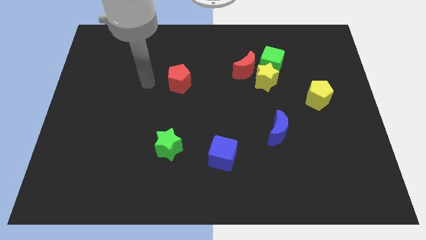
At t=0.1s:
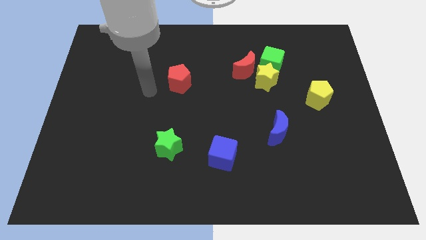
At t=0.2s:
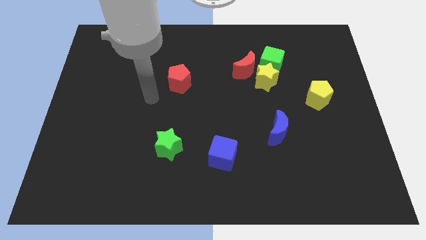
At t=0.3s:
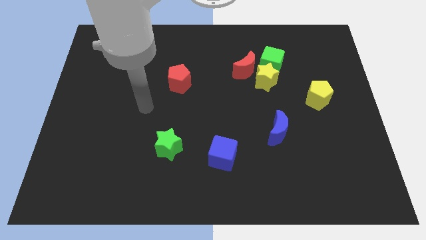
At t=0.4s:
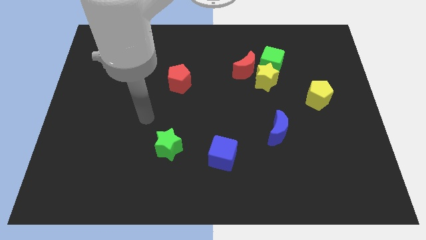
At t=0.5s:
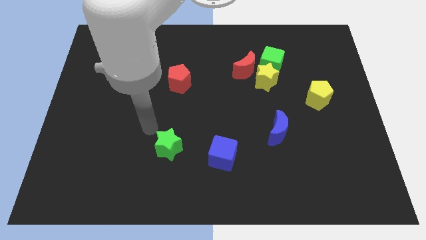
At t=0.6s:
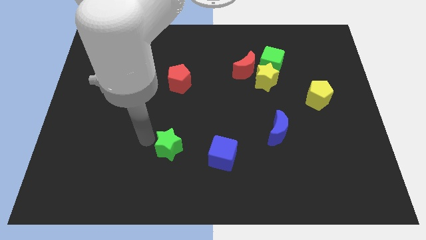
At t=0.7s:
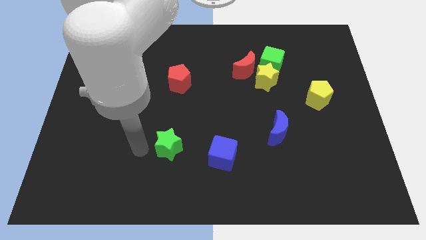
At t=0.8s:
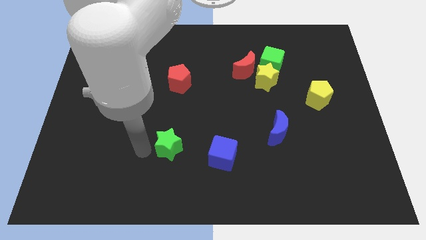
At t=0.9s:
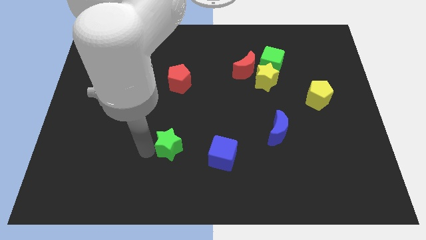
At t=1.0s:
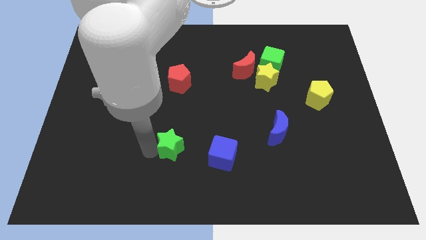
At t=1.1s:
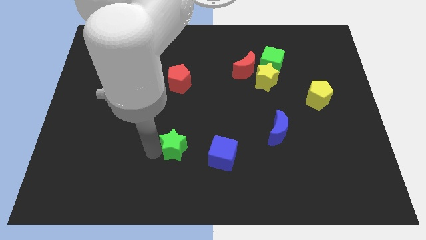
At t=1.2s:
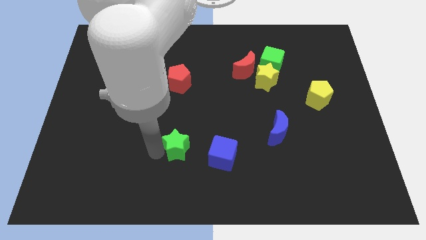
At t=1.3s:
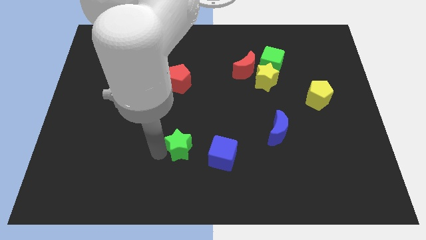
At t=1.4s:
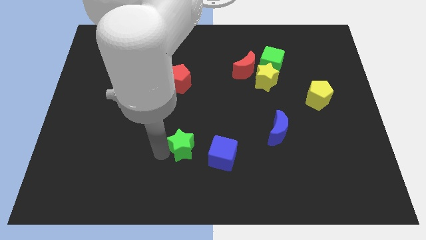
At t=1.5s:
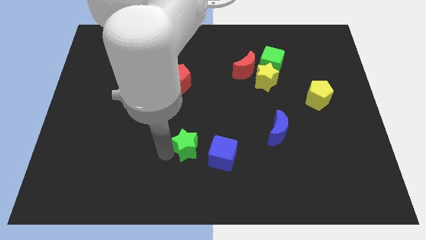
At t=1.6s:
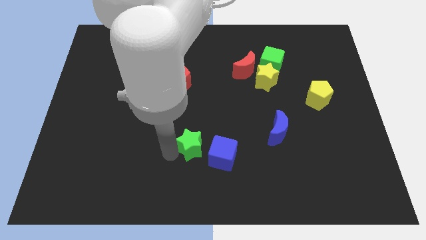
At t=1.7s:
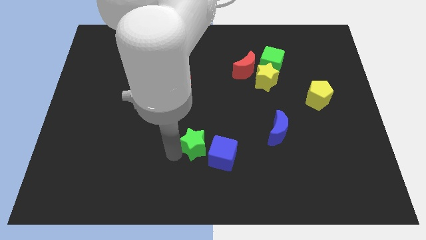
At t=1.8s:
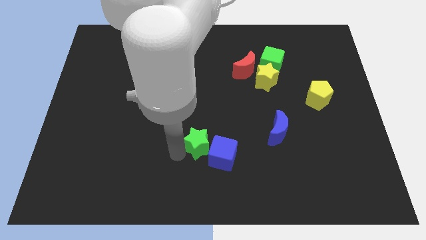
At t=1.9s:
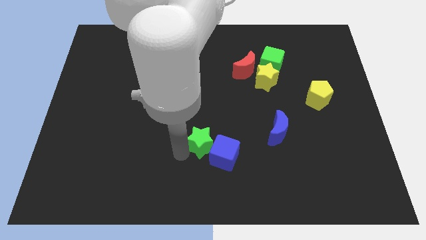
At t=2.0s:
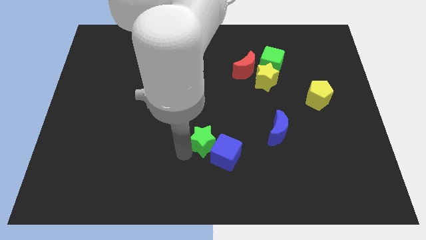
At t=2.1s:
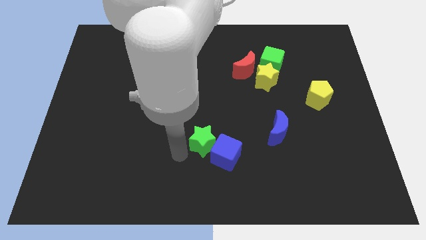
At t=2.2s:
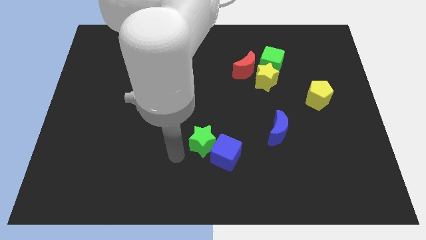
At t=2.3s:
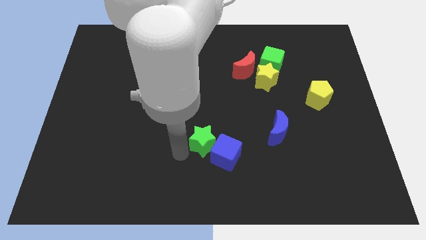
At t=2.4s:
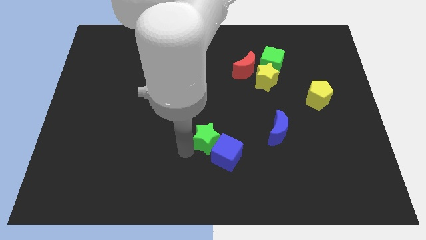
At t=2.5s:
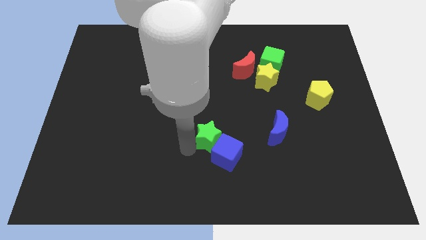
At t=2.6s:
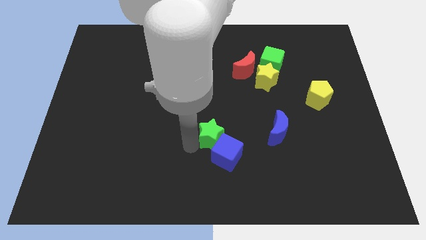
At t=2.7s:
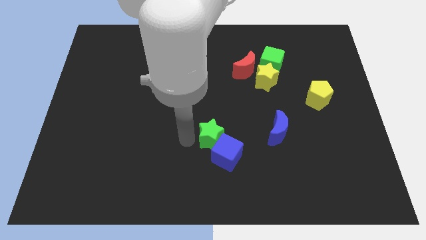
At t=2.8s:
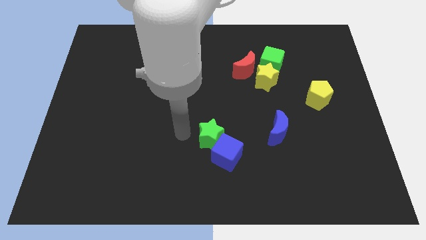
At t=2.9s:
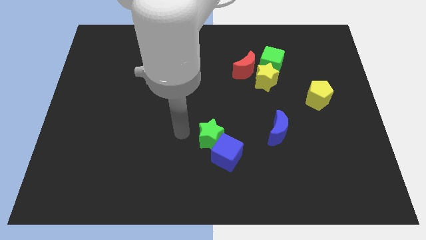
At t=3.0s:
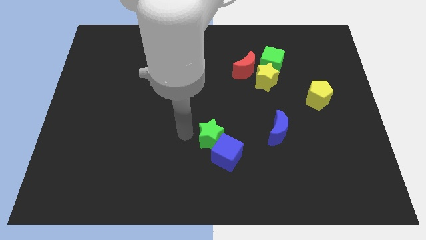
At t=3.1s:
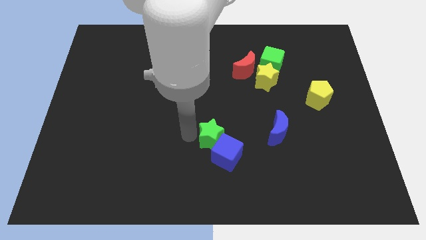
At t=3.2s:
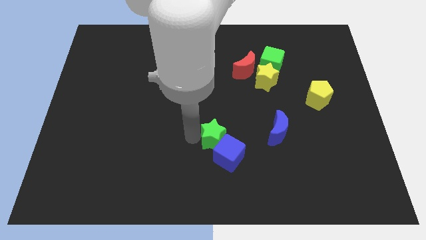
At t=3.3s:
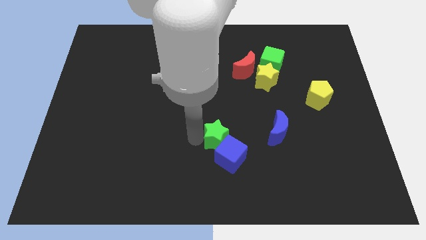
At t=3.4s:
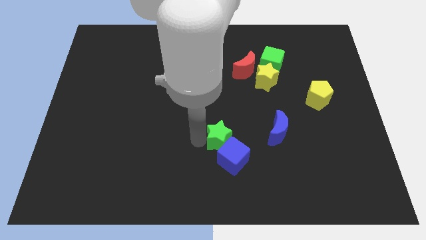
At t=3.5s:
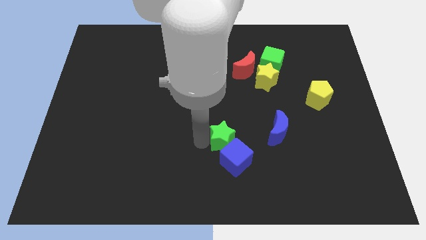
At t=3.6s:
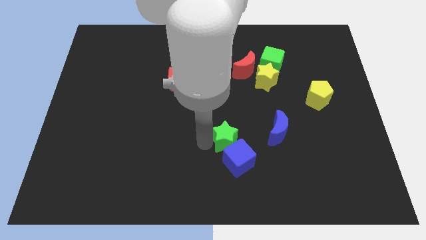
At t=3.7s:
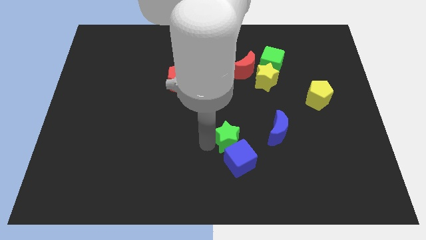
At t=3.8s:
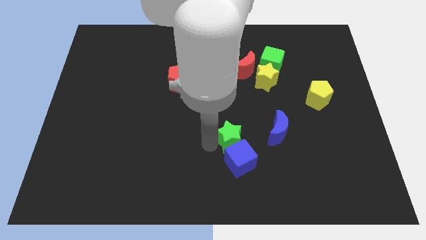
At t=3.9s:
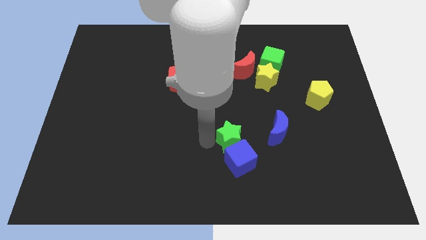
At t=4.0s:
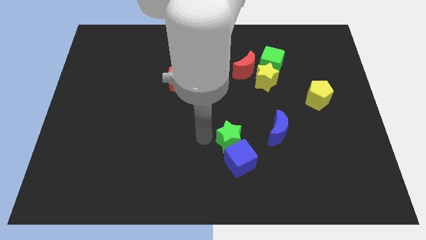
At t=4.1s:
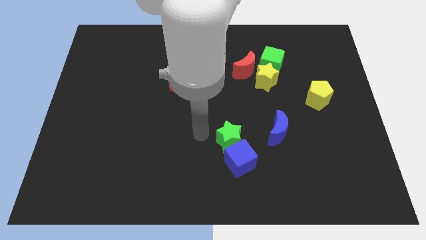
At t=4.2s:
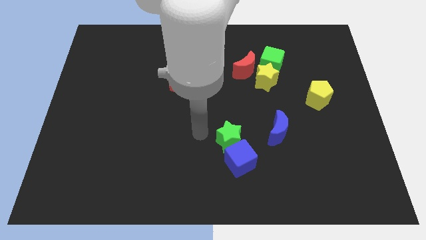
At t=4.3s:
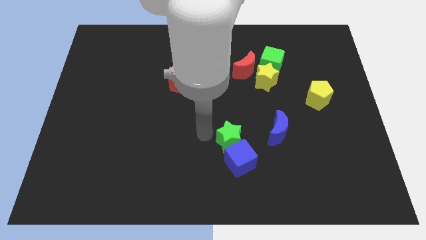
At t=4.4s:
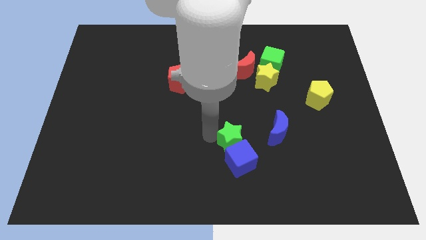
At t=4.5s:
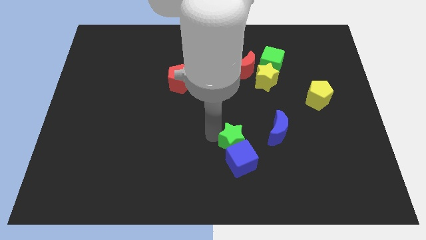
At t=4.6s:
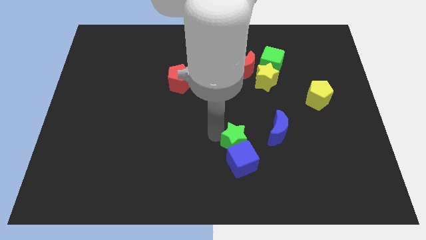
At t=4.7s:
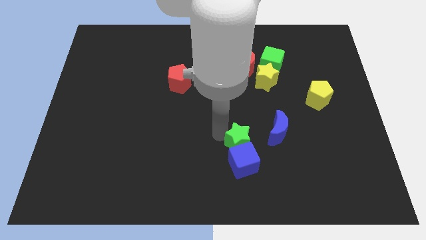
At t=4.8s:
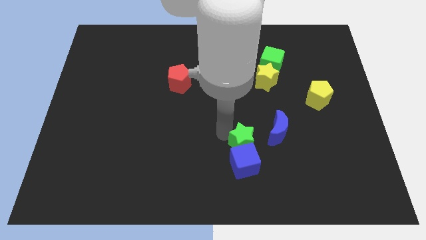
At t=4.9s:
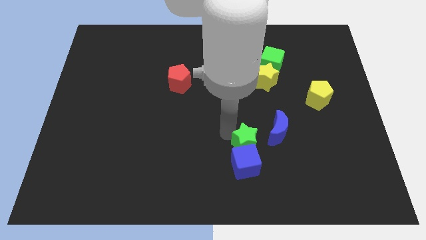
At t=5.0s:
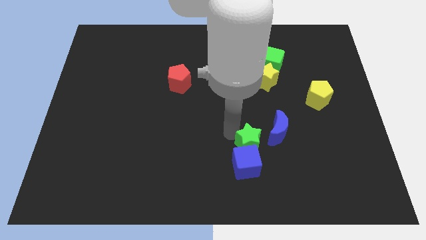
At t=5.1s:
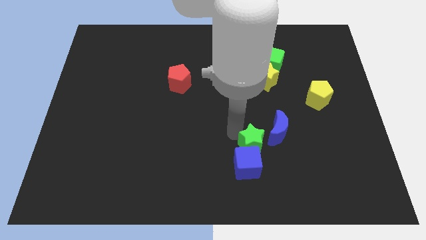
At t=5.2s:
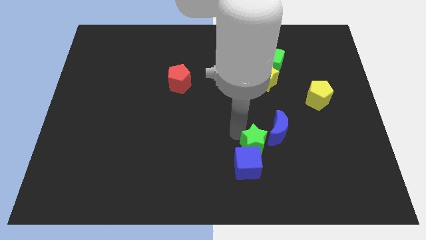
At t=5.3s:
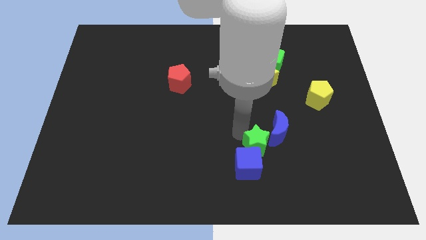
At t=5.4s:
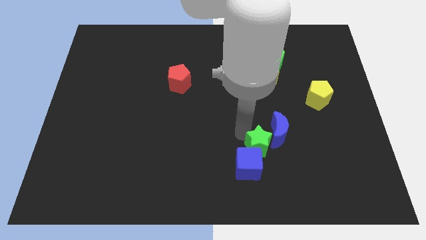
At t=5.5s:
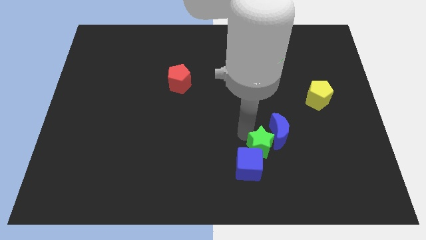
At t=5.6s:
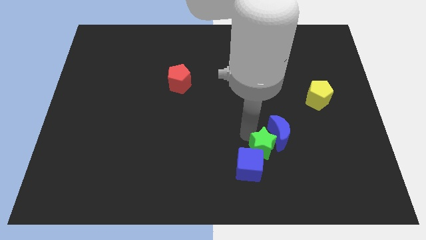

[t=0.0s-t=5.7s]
push the green star right

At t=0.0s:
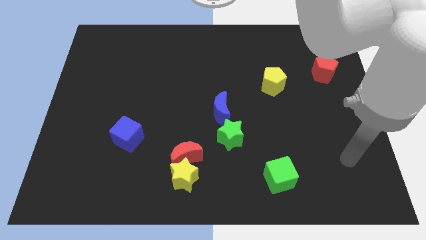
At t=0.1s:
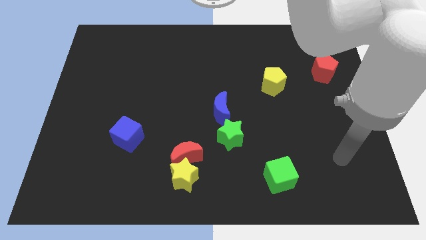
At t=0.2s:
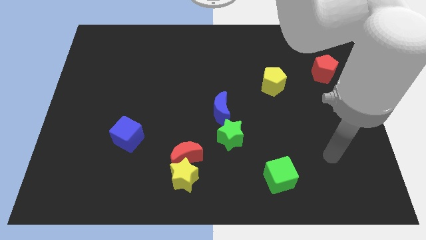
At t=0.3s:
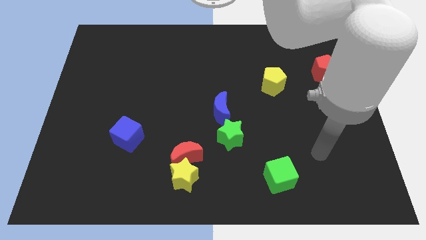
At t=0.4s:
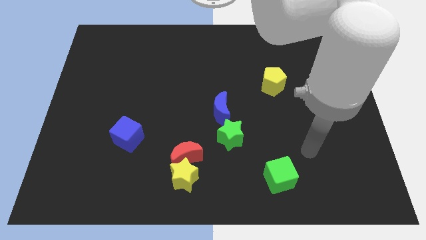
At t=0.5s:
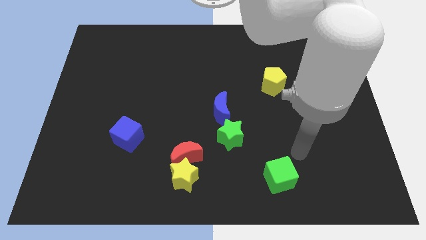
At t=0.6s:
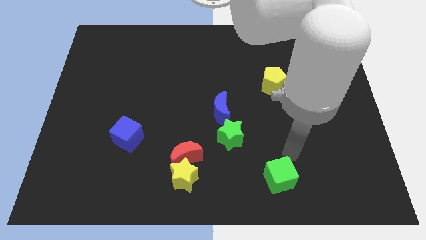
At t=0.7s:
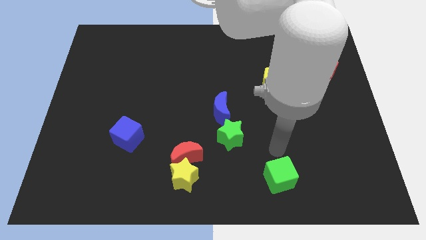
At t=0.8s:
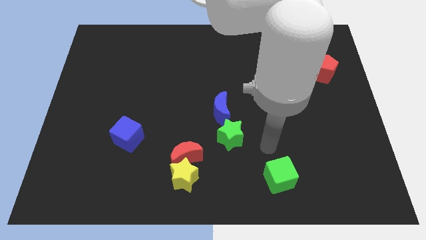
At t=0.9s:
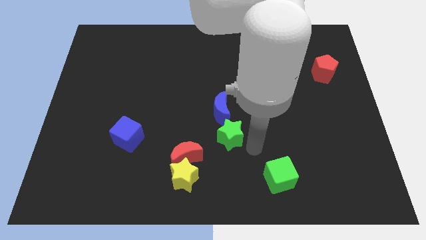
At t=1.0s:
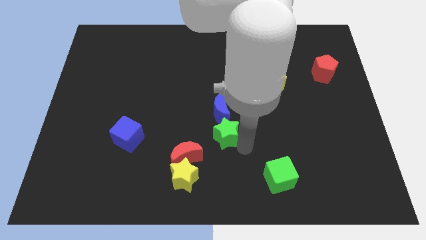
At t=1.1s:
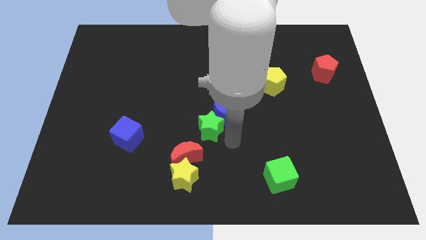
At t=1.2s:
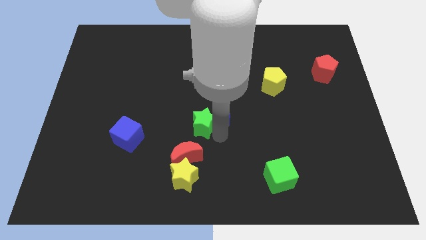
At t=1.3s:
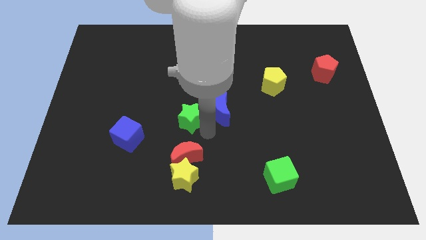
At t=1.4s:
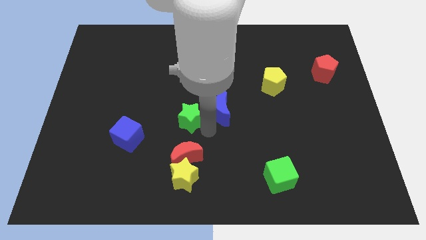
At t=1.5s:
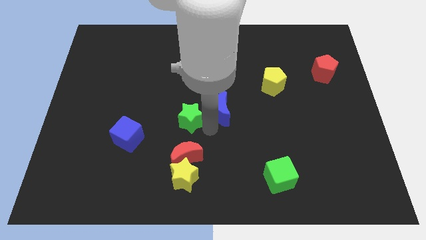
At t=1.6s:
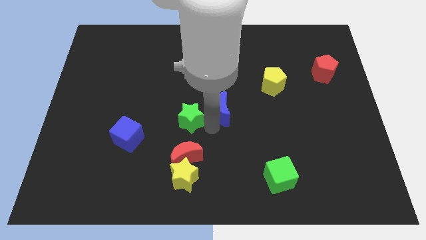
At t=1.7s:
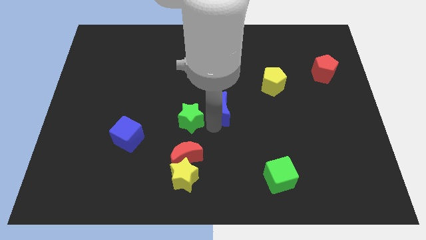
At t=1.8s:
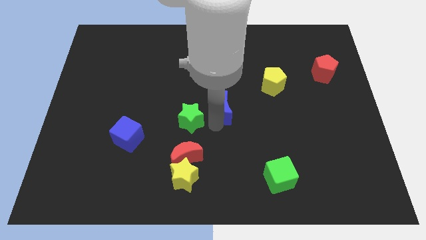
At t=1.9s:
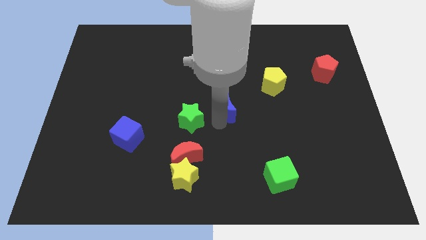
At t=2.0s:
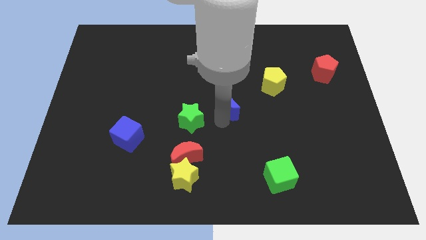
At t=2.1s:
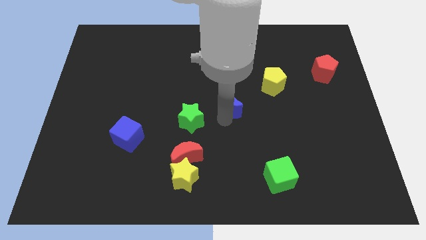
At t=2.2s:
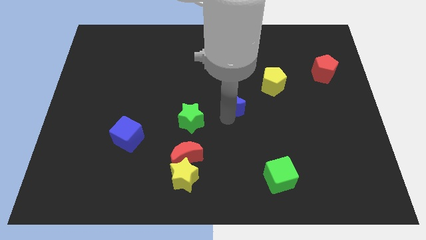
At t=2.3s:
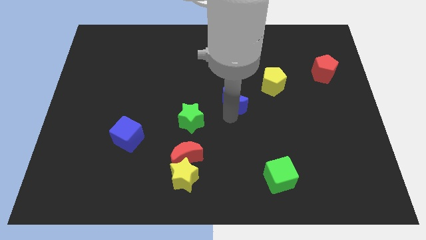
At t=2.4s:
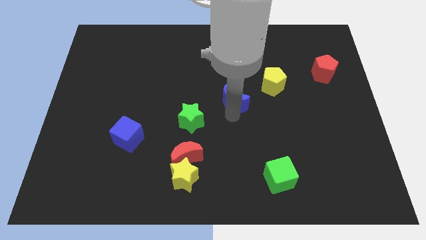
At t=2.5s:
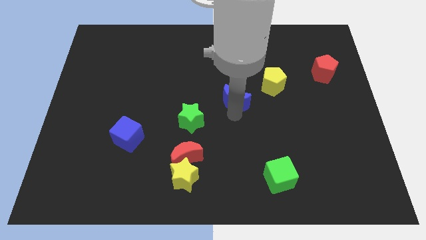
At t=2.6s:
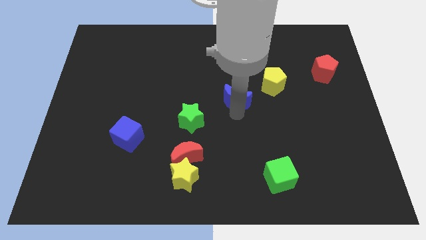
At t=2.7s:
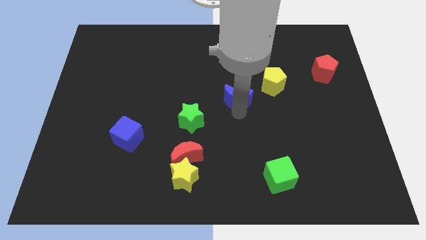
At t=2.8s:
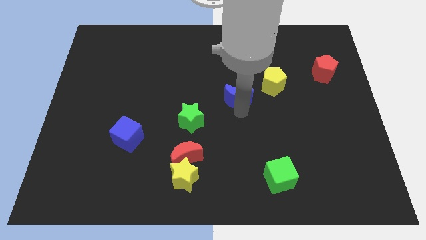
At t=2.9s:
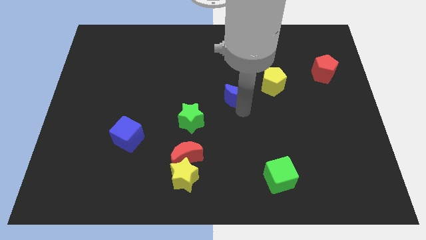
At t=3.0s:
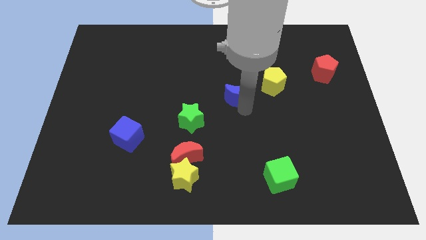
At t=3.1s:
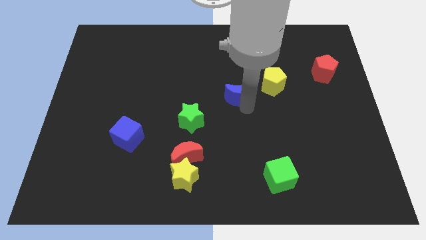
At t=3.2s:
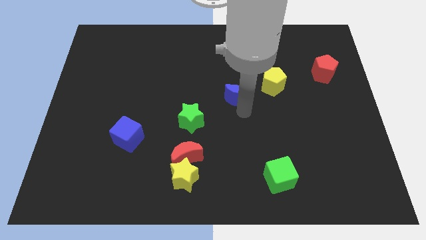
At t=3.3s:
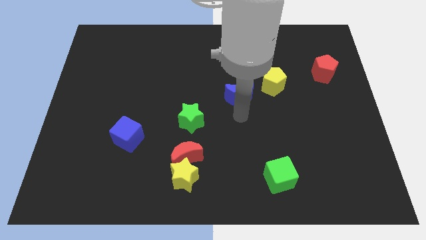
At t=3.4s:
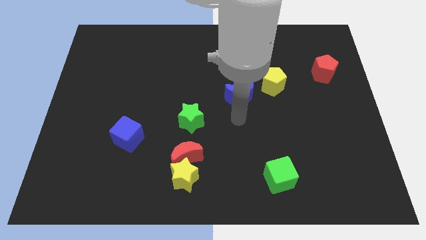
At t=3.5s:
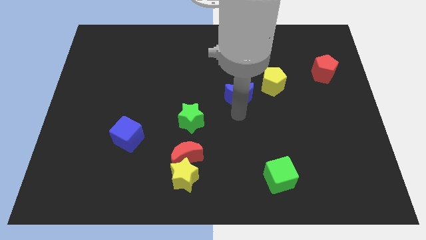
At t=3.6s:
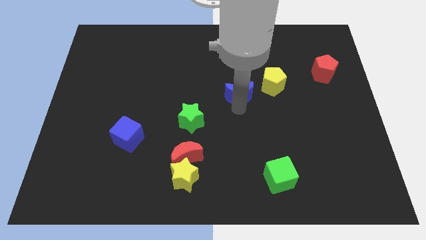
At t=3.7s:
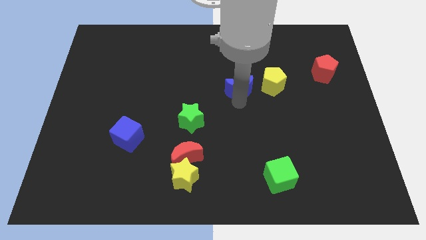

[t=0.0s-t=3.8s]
move the blue moon a little up and then to the right
